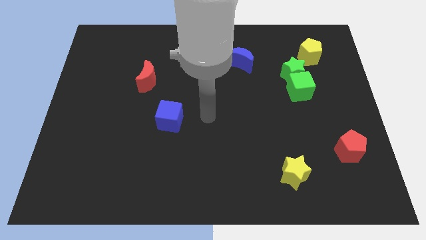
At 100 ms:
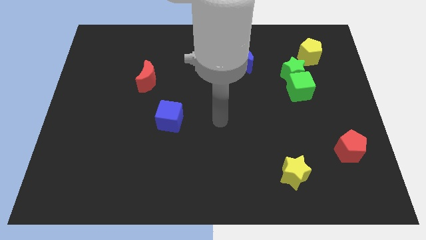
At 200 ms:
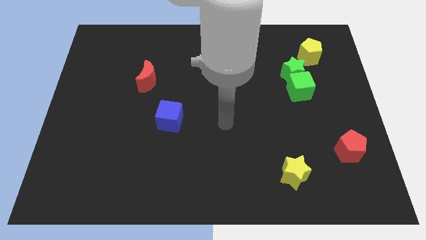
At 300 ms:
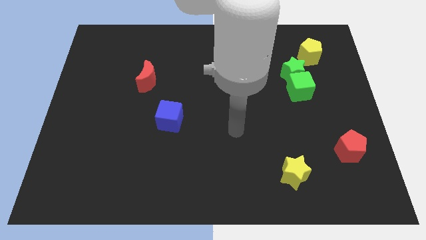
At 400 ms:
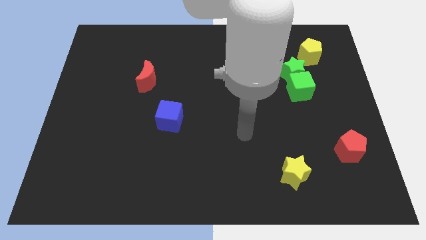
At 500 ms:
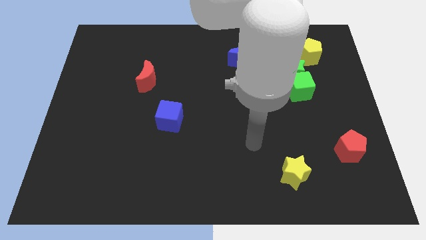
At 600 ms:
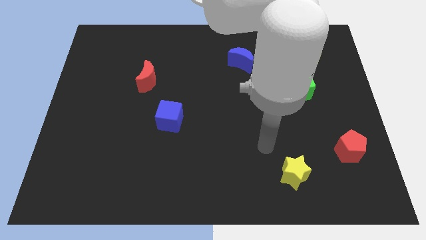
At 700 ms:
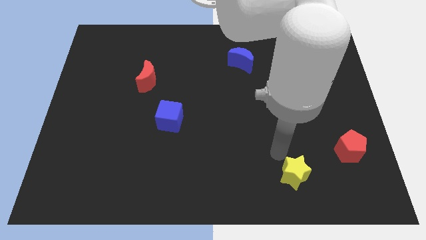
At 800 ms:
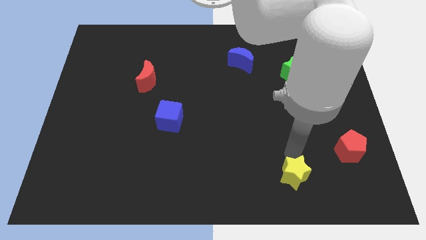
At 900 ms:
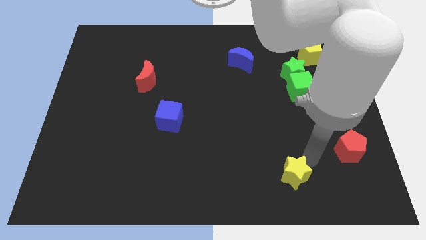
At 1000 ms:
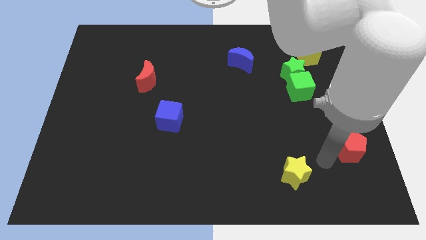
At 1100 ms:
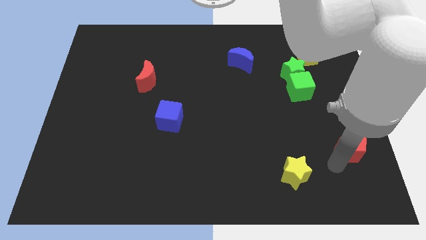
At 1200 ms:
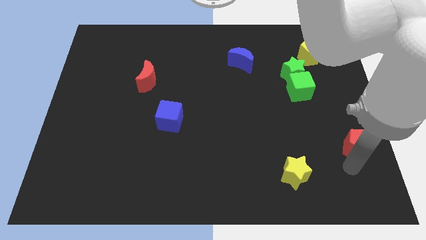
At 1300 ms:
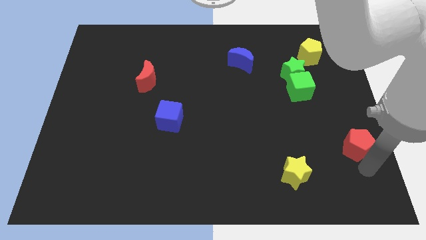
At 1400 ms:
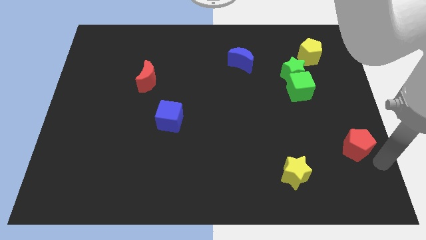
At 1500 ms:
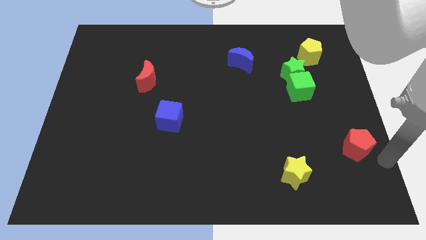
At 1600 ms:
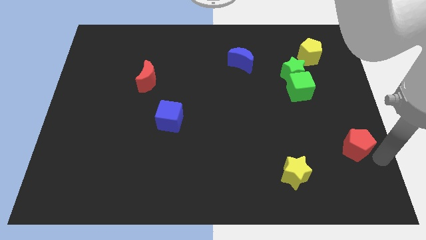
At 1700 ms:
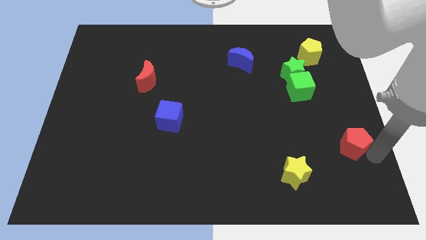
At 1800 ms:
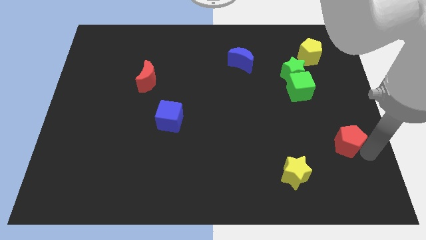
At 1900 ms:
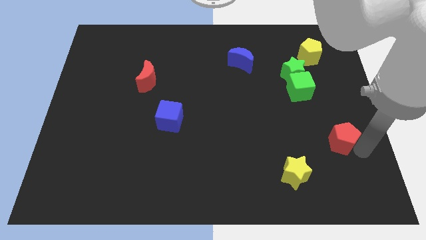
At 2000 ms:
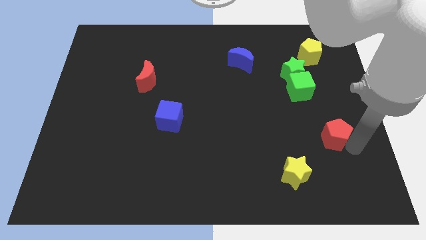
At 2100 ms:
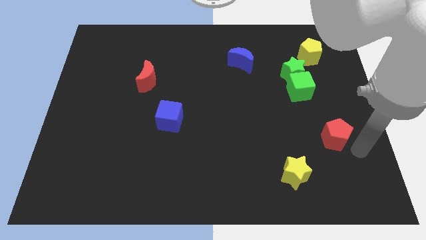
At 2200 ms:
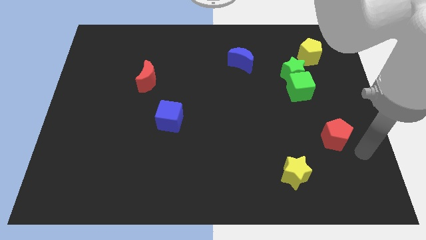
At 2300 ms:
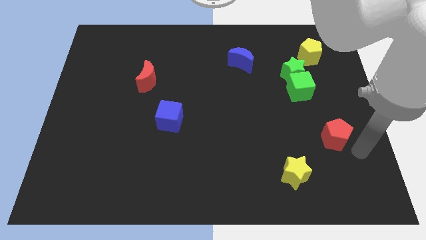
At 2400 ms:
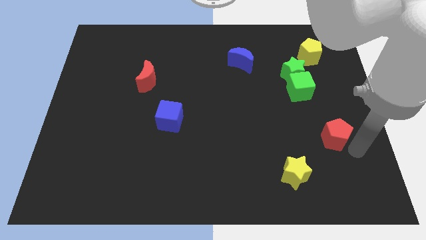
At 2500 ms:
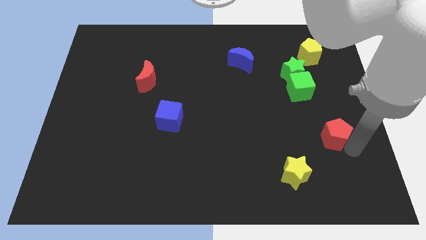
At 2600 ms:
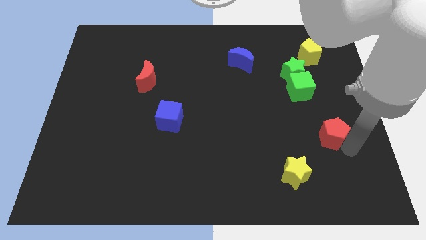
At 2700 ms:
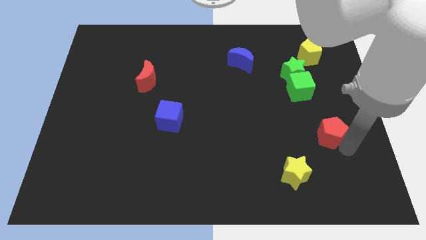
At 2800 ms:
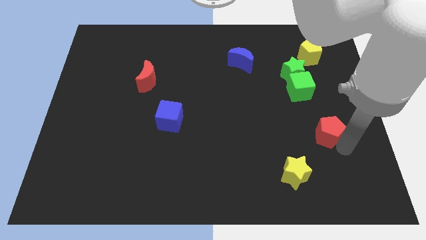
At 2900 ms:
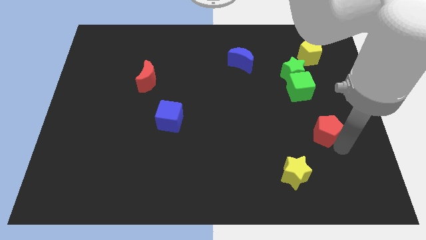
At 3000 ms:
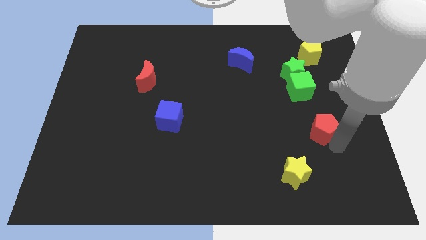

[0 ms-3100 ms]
slightly slide the red pentagon diagonally up and left

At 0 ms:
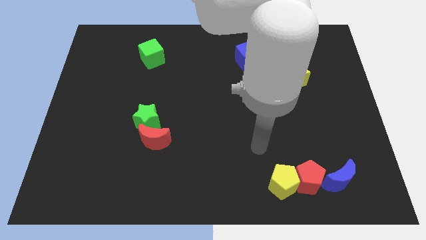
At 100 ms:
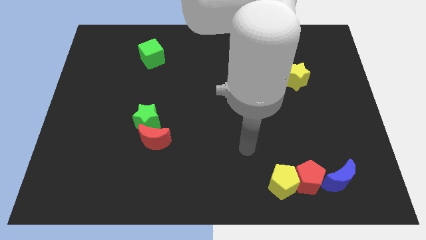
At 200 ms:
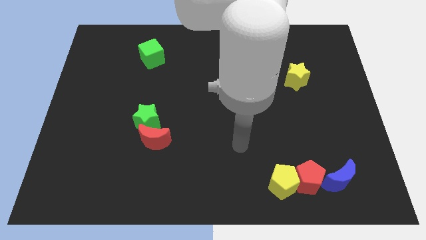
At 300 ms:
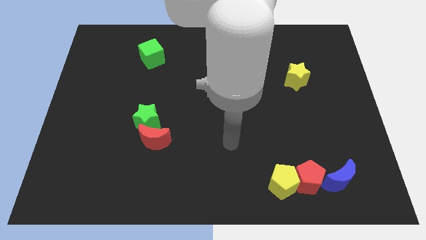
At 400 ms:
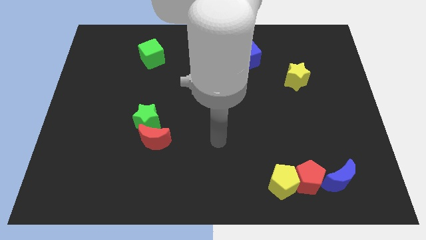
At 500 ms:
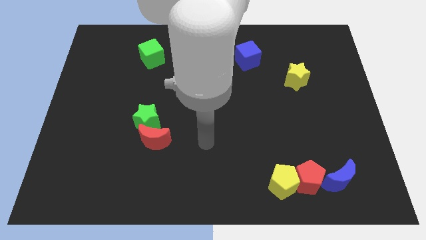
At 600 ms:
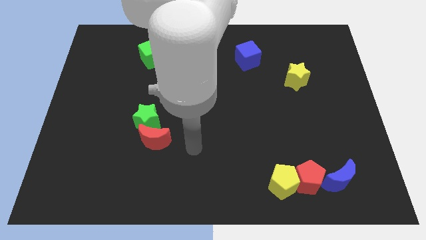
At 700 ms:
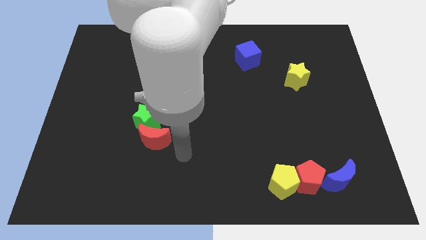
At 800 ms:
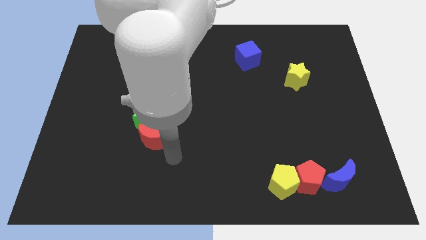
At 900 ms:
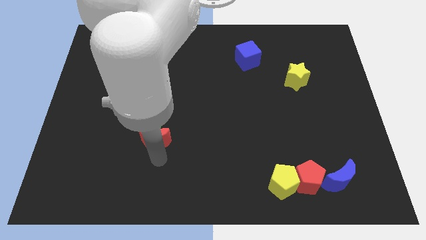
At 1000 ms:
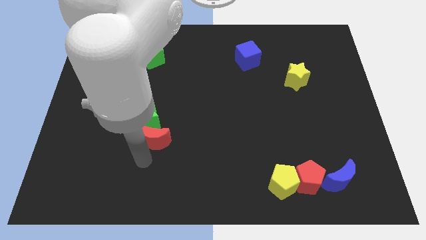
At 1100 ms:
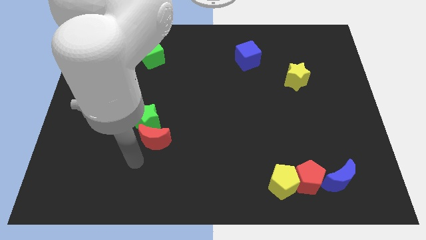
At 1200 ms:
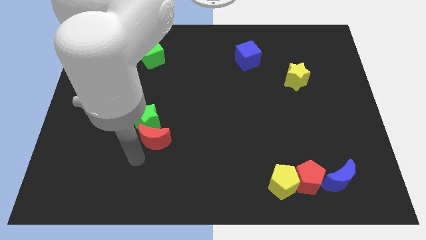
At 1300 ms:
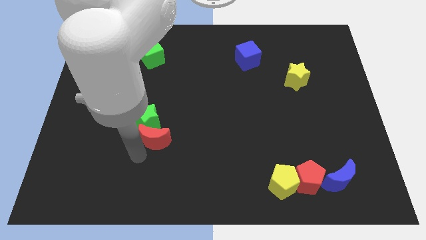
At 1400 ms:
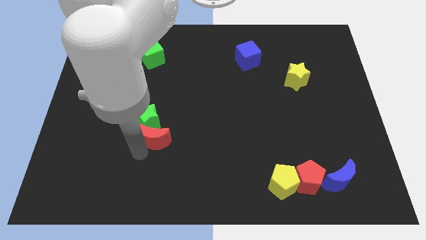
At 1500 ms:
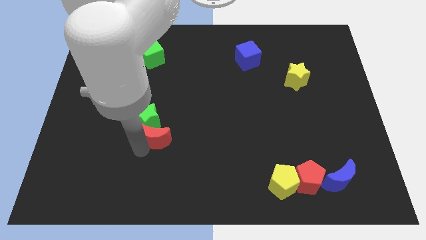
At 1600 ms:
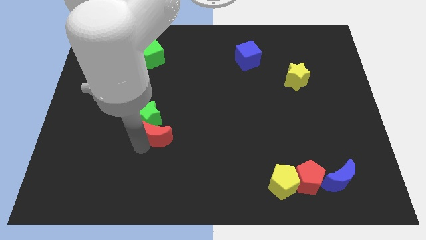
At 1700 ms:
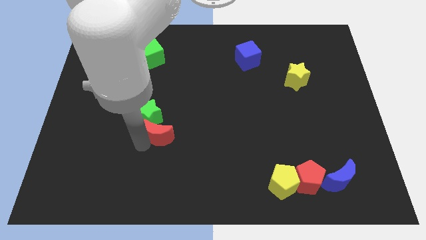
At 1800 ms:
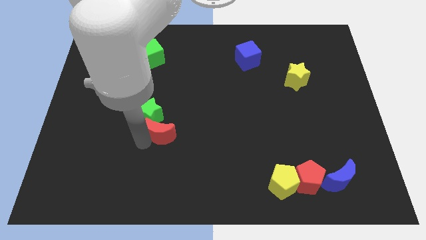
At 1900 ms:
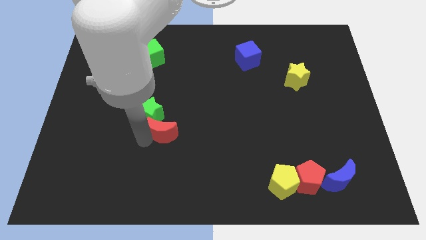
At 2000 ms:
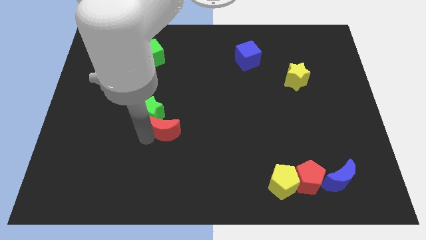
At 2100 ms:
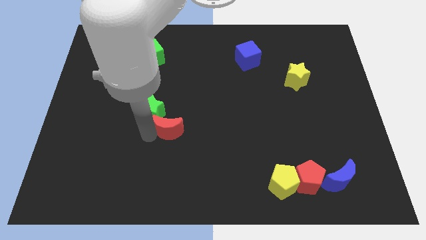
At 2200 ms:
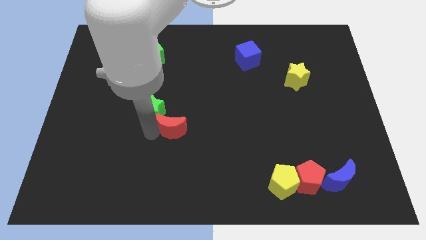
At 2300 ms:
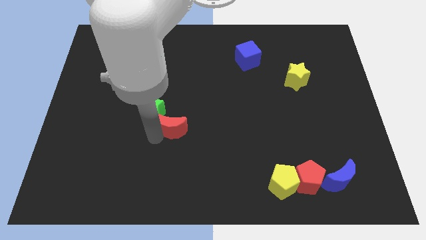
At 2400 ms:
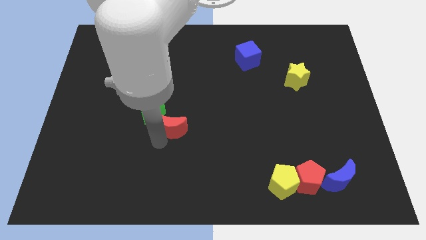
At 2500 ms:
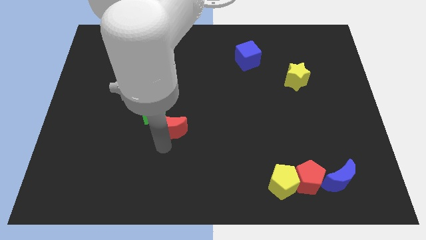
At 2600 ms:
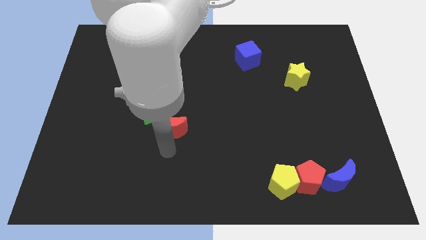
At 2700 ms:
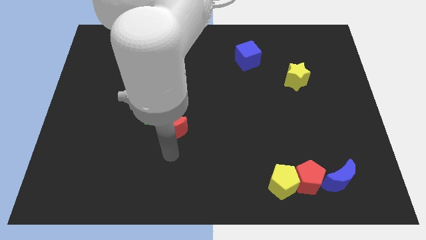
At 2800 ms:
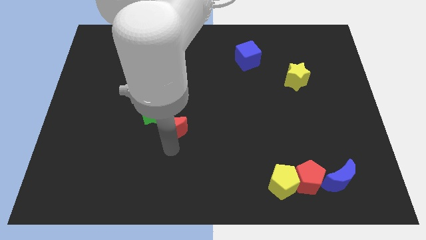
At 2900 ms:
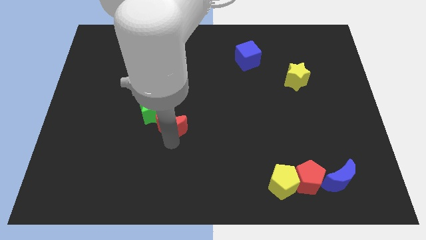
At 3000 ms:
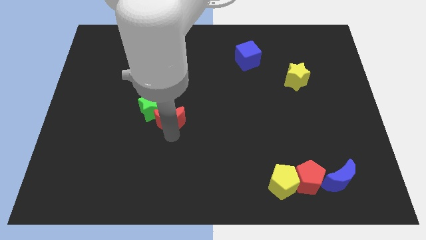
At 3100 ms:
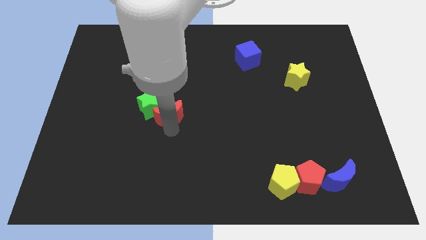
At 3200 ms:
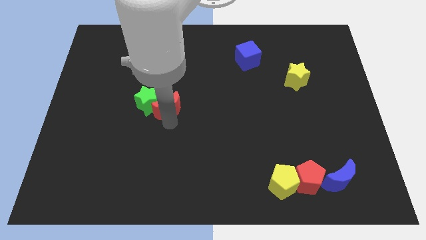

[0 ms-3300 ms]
push the red moon a bit up

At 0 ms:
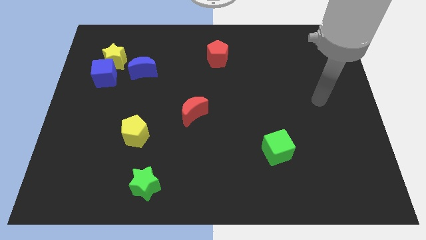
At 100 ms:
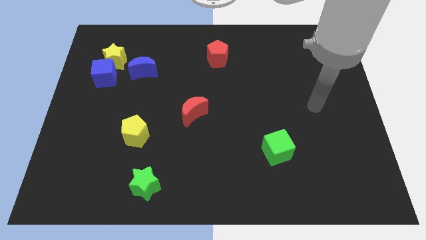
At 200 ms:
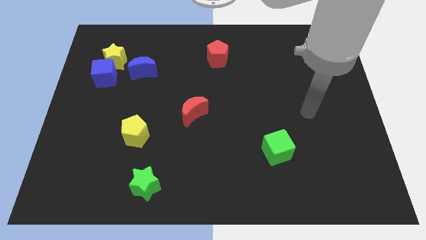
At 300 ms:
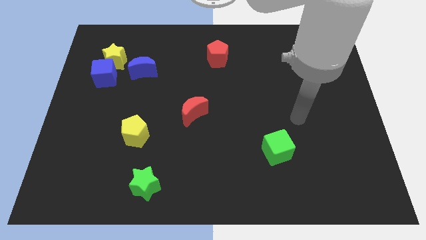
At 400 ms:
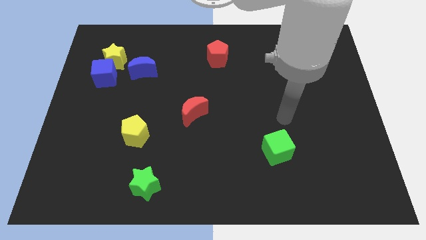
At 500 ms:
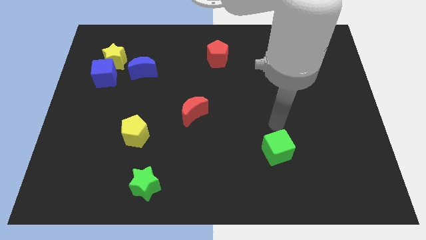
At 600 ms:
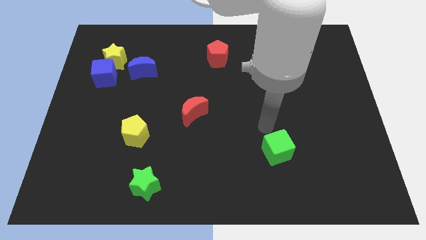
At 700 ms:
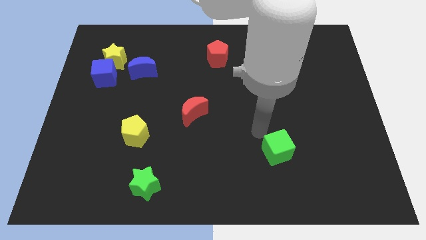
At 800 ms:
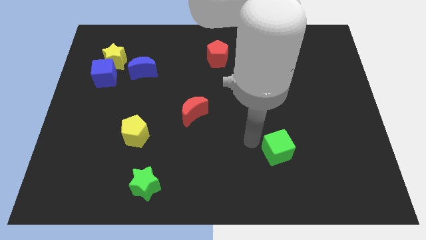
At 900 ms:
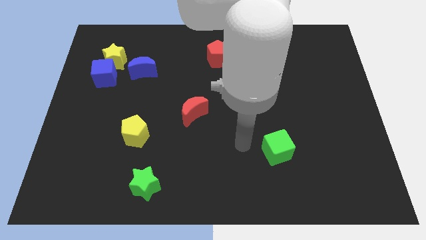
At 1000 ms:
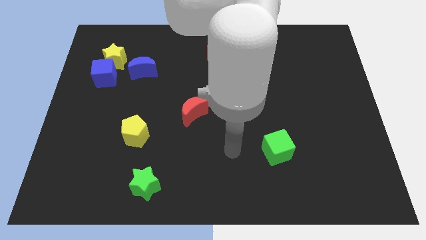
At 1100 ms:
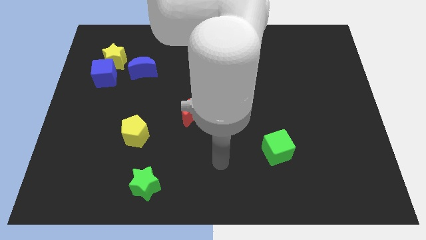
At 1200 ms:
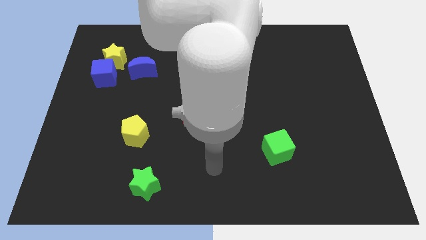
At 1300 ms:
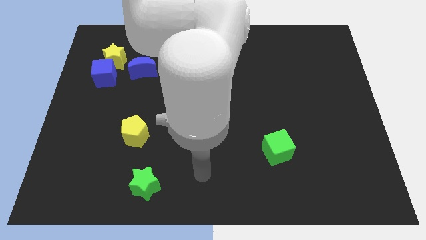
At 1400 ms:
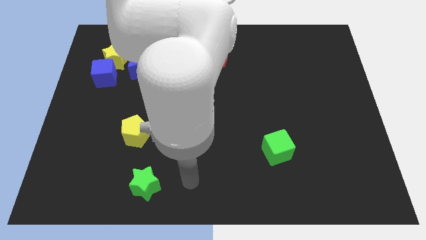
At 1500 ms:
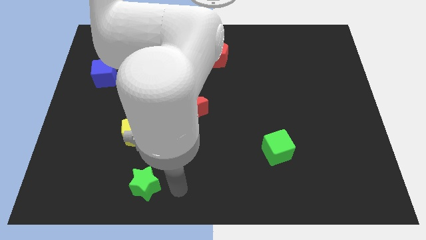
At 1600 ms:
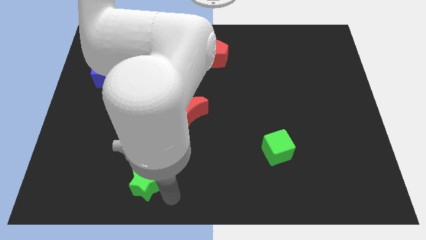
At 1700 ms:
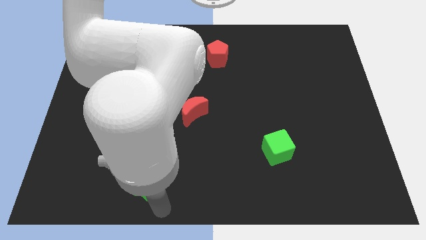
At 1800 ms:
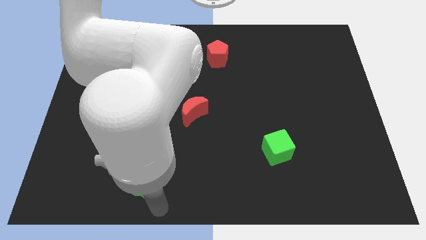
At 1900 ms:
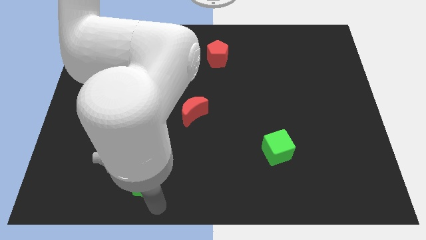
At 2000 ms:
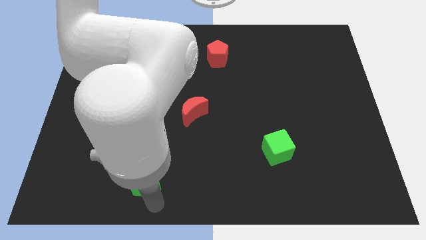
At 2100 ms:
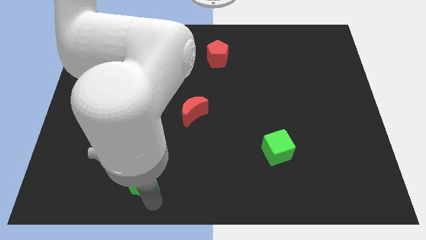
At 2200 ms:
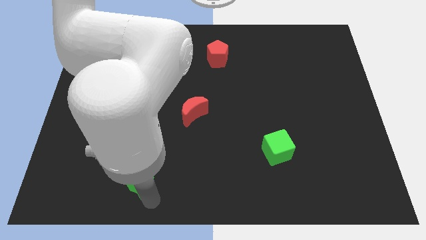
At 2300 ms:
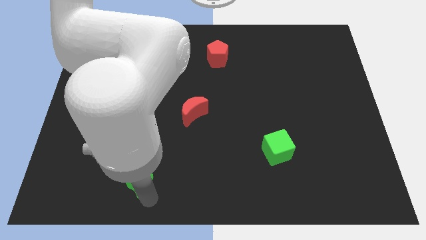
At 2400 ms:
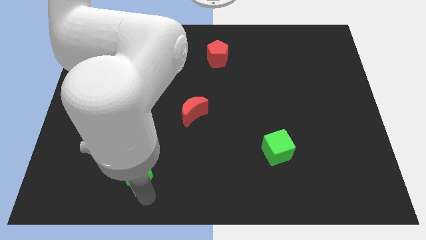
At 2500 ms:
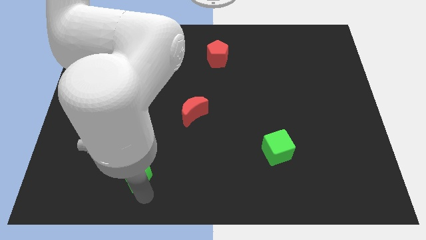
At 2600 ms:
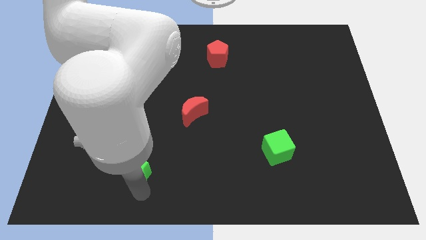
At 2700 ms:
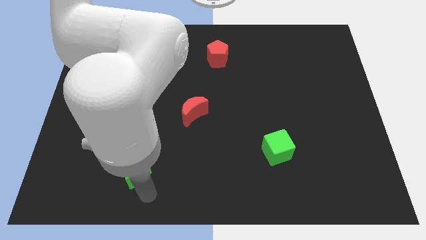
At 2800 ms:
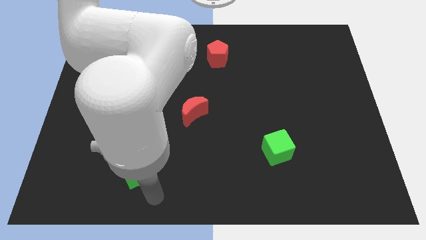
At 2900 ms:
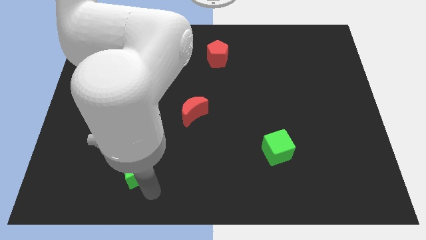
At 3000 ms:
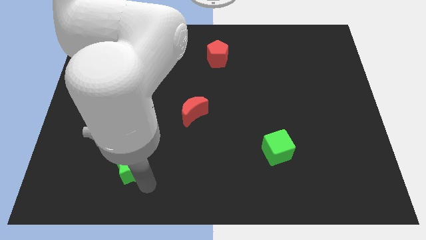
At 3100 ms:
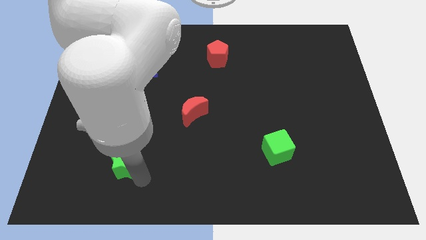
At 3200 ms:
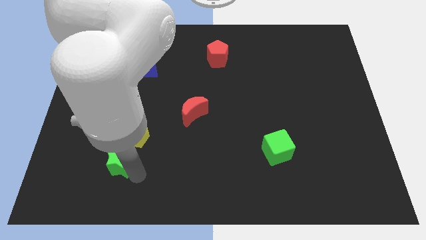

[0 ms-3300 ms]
move the green star somewhat up and left
